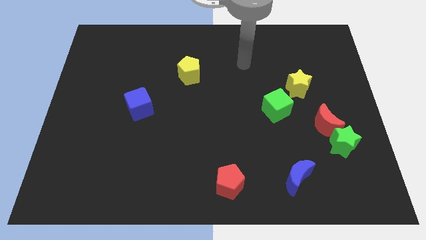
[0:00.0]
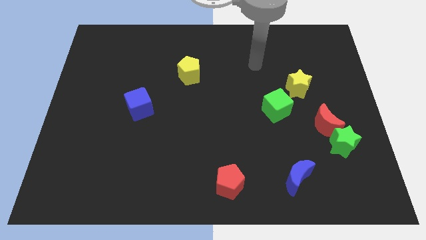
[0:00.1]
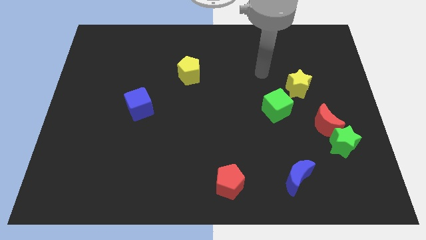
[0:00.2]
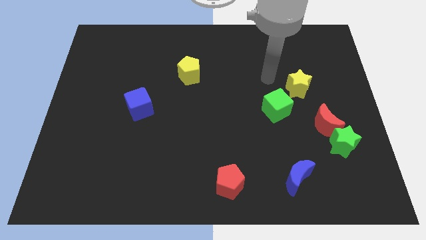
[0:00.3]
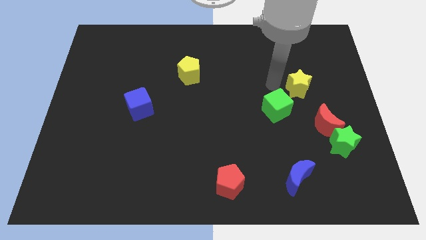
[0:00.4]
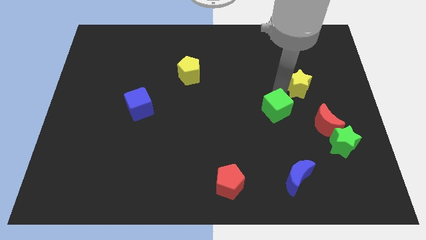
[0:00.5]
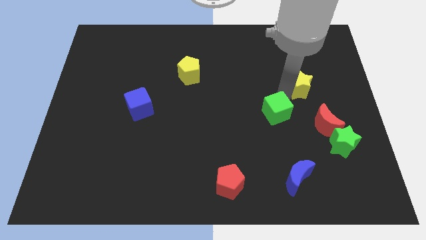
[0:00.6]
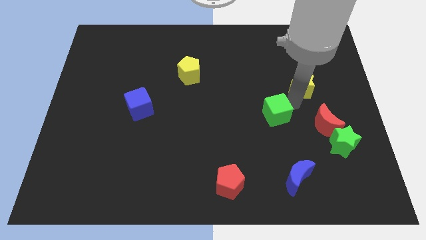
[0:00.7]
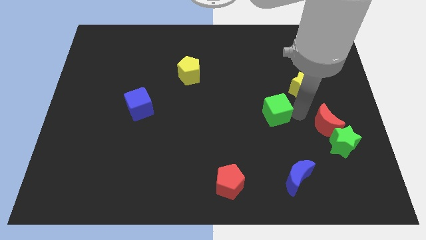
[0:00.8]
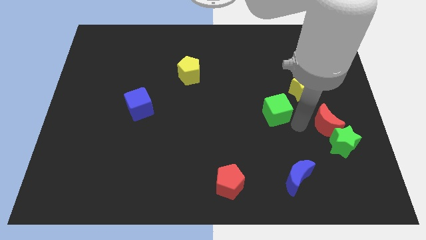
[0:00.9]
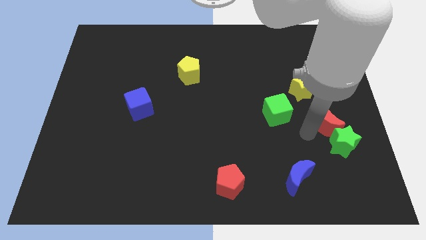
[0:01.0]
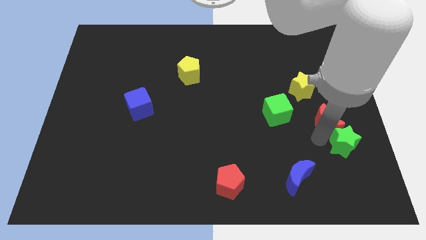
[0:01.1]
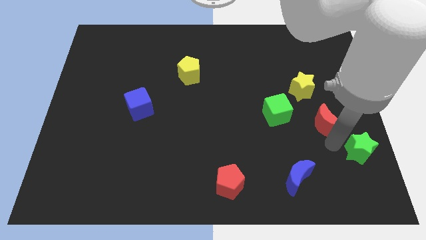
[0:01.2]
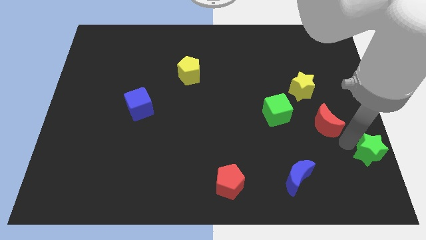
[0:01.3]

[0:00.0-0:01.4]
move the red moon away from the green star

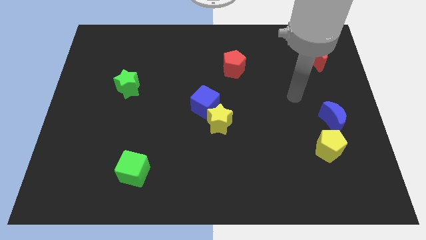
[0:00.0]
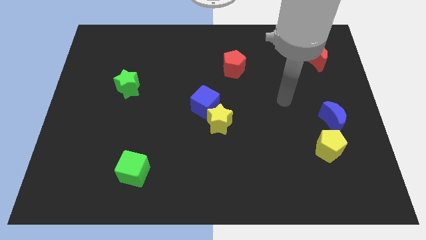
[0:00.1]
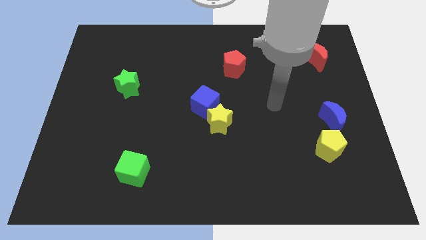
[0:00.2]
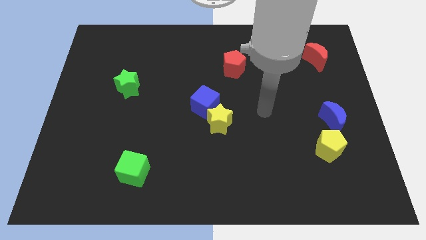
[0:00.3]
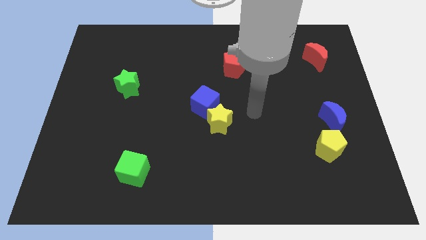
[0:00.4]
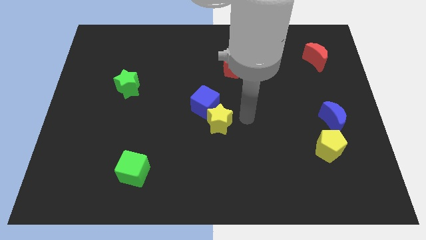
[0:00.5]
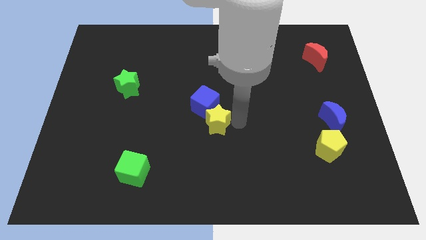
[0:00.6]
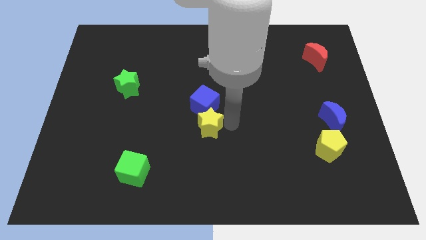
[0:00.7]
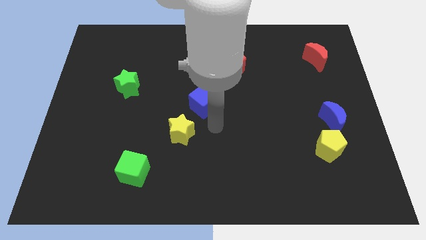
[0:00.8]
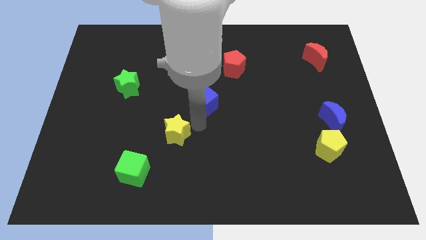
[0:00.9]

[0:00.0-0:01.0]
move the blue cube away from the yellow star

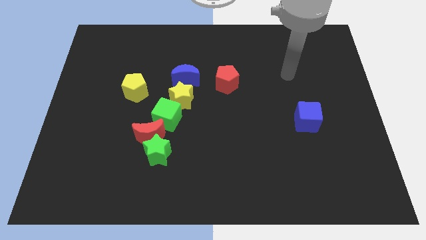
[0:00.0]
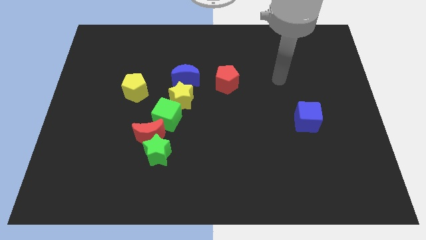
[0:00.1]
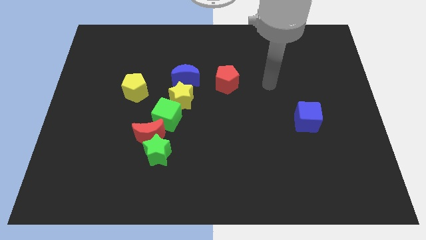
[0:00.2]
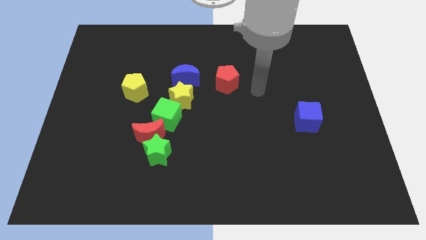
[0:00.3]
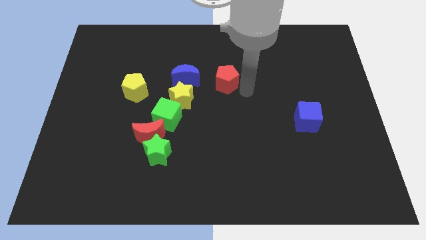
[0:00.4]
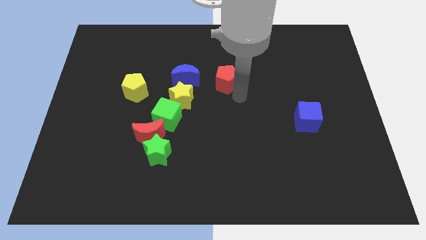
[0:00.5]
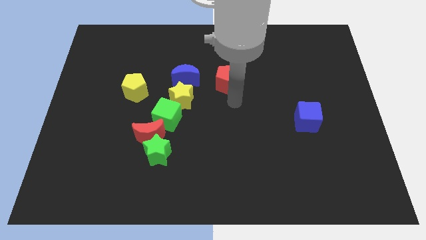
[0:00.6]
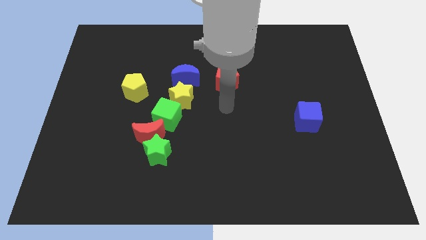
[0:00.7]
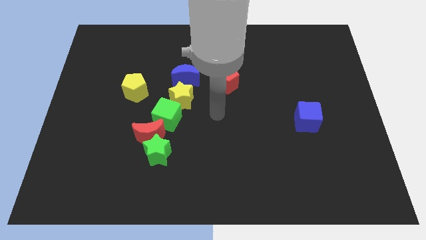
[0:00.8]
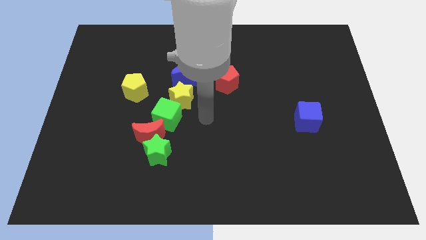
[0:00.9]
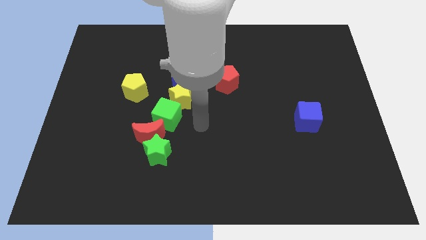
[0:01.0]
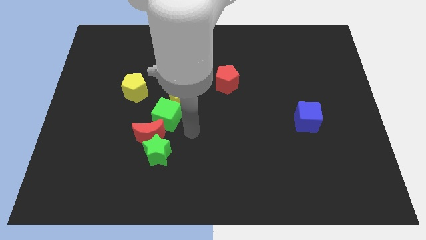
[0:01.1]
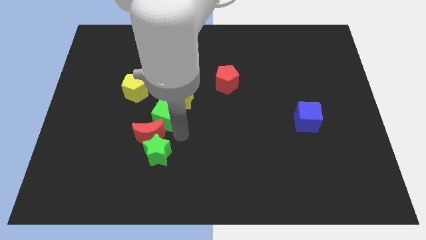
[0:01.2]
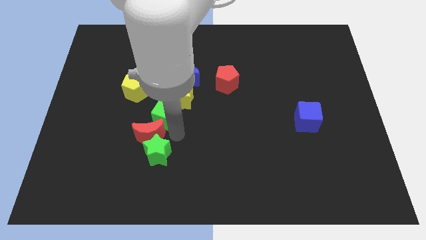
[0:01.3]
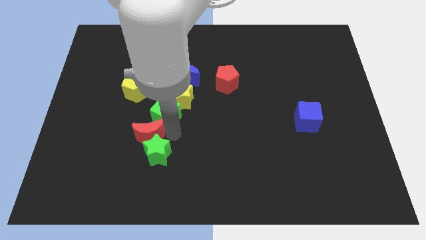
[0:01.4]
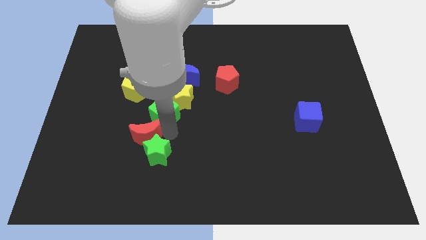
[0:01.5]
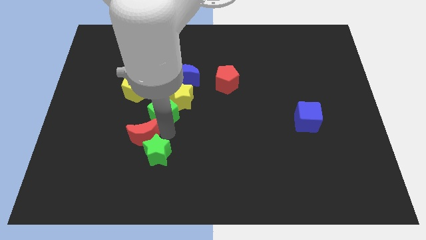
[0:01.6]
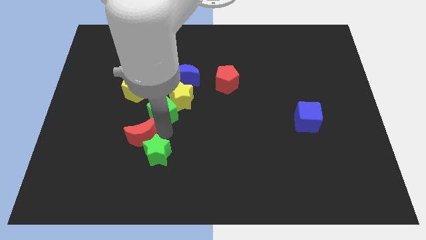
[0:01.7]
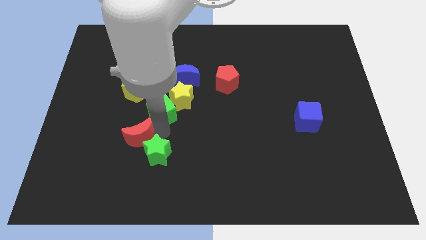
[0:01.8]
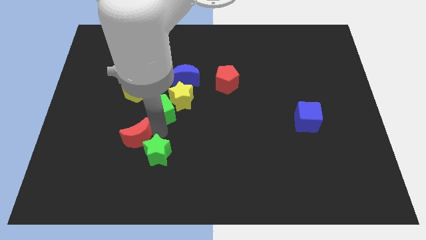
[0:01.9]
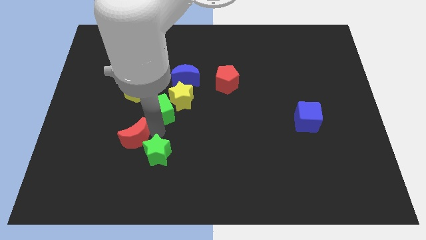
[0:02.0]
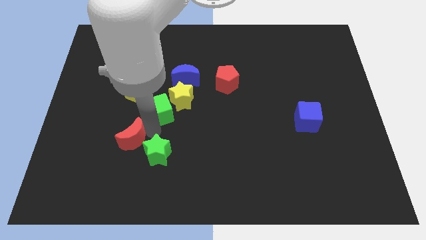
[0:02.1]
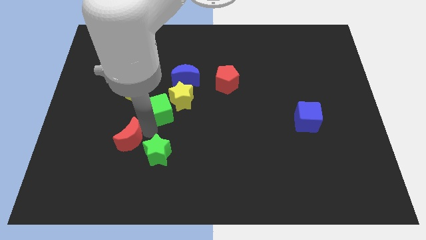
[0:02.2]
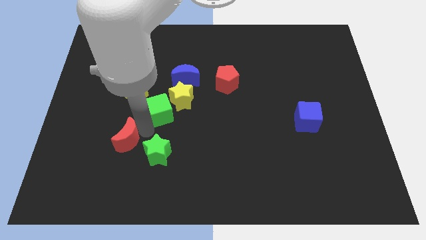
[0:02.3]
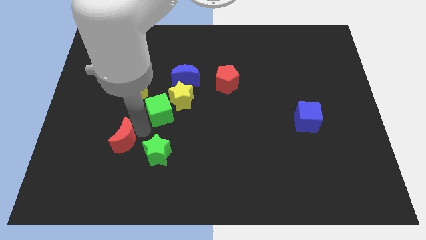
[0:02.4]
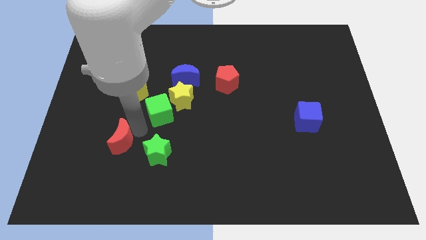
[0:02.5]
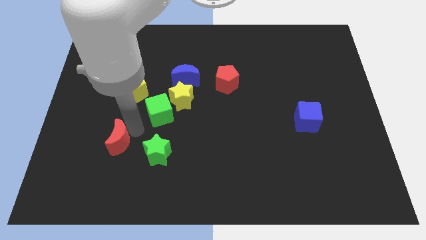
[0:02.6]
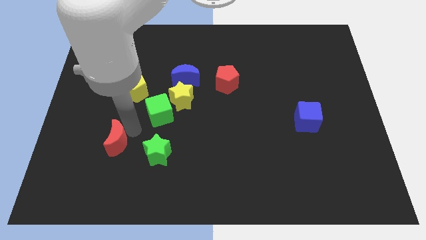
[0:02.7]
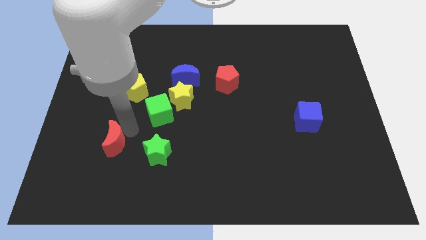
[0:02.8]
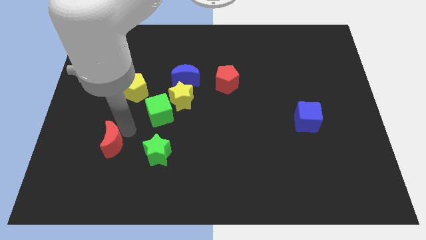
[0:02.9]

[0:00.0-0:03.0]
pull the red moon apart from the green star and green cube

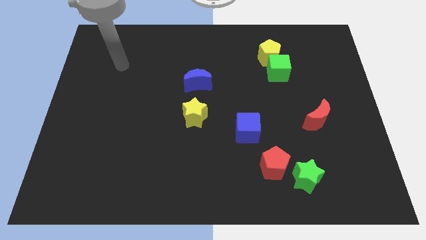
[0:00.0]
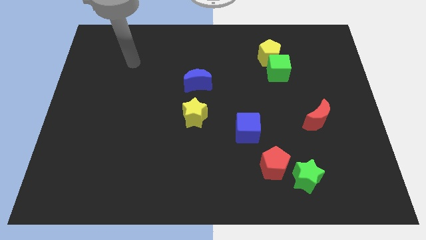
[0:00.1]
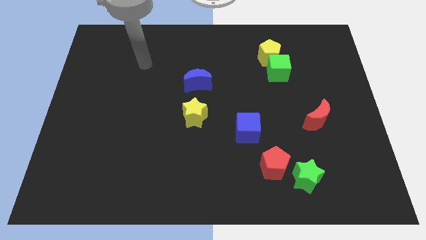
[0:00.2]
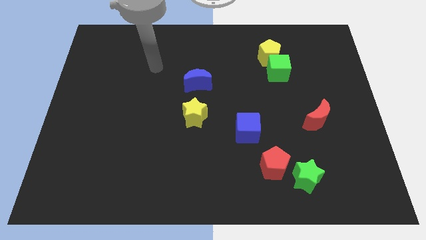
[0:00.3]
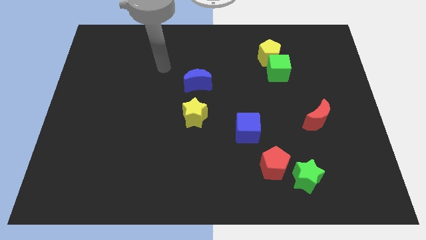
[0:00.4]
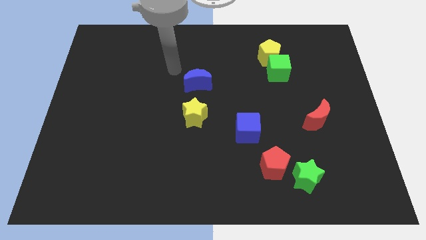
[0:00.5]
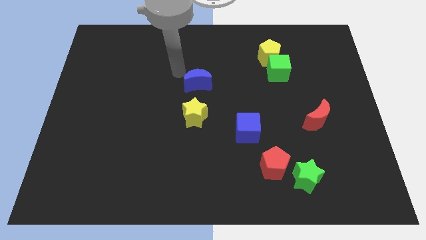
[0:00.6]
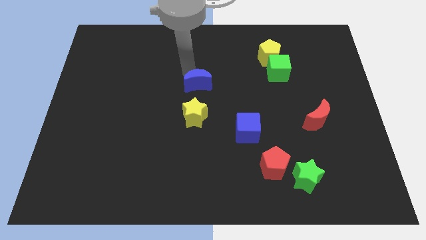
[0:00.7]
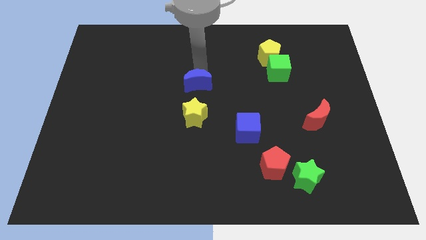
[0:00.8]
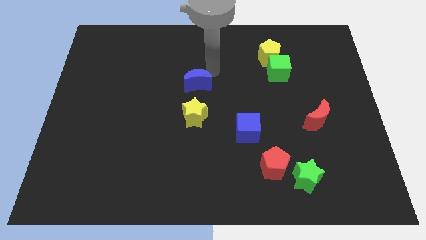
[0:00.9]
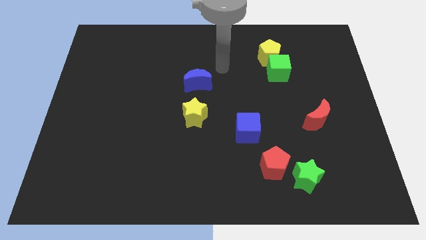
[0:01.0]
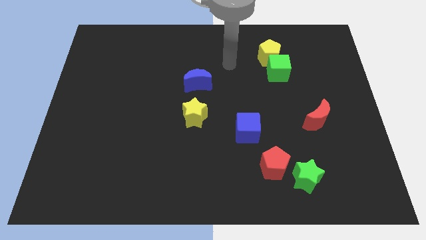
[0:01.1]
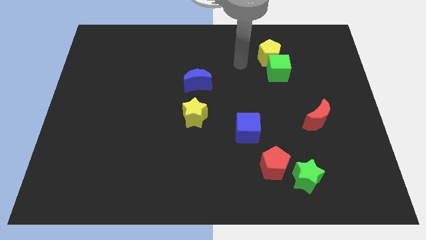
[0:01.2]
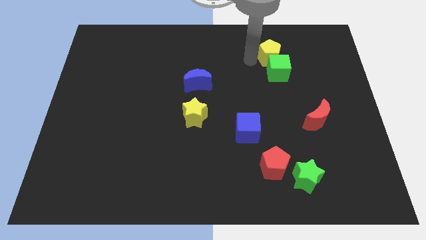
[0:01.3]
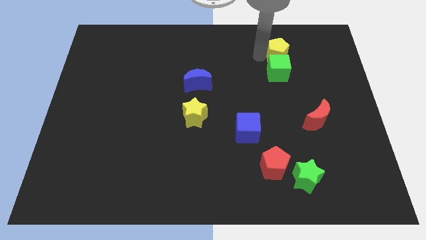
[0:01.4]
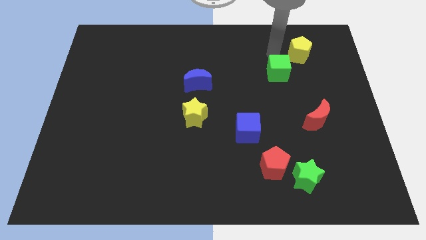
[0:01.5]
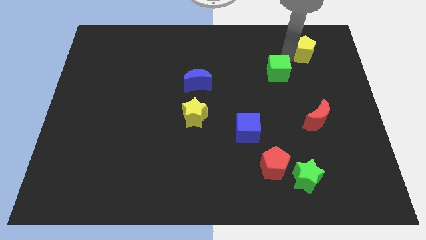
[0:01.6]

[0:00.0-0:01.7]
move the green cube away from the yellow pentagon

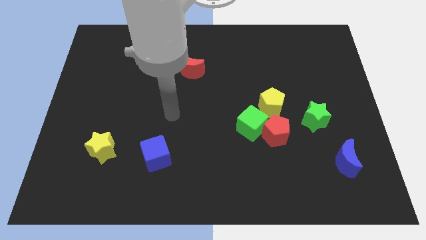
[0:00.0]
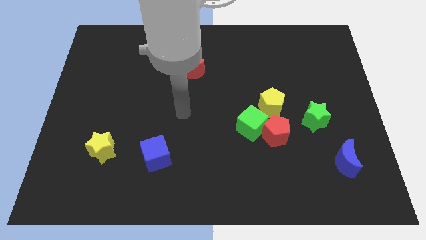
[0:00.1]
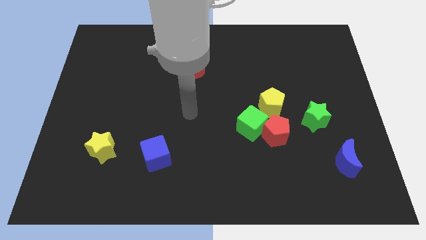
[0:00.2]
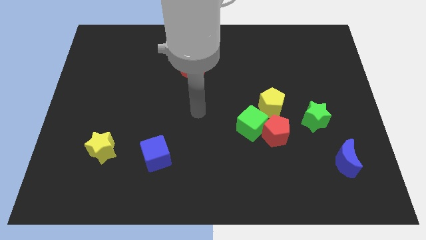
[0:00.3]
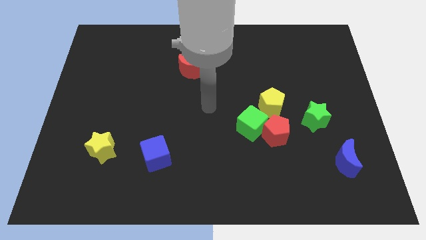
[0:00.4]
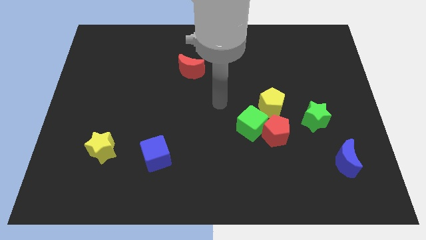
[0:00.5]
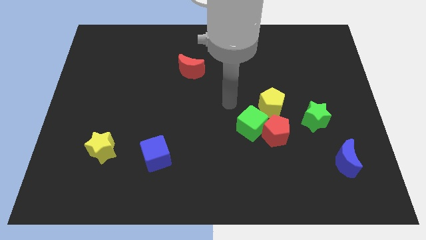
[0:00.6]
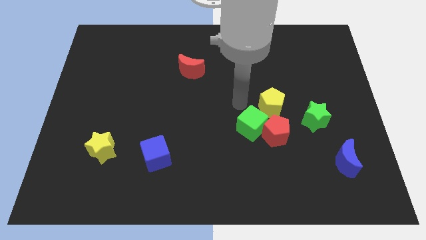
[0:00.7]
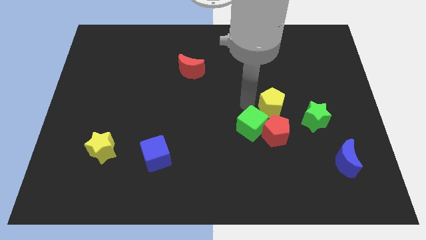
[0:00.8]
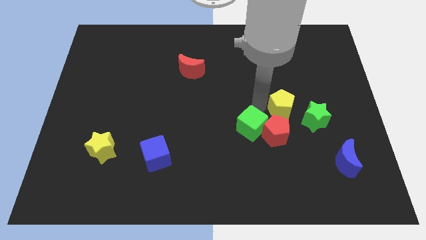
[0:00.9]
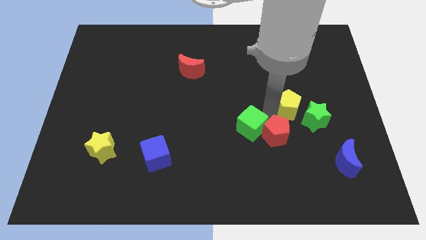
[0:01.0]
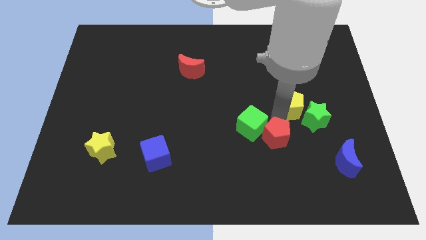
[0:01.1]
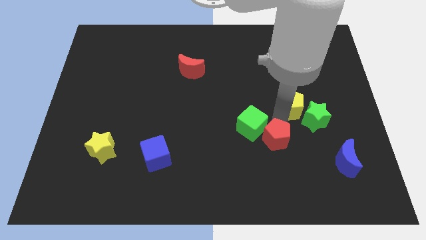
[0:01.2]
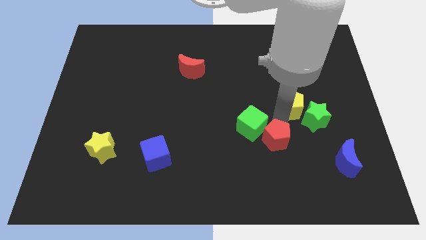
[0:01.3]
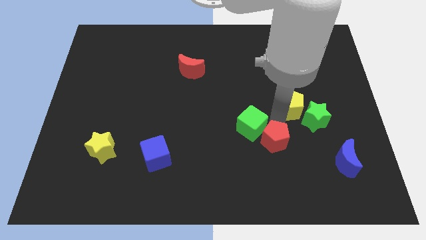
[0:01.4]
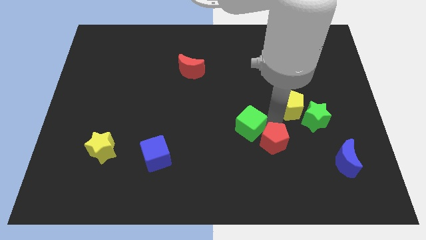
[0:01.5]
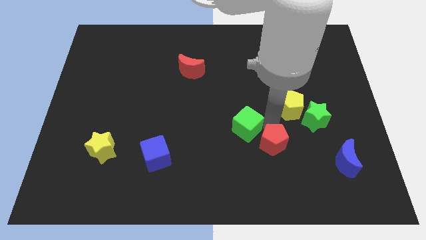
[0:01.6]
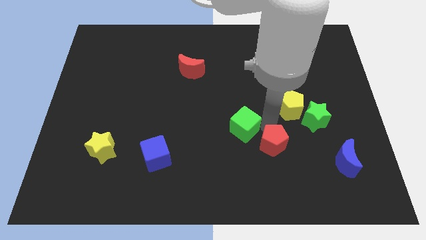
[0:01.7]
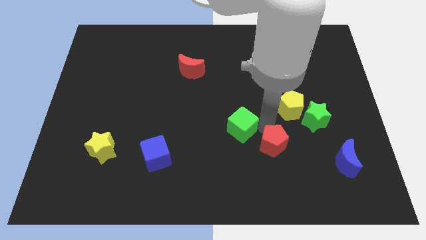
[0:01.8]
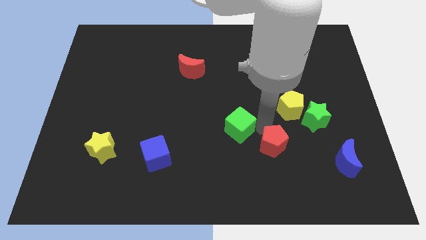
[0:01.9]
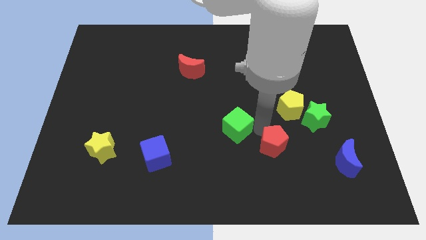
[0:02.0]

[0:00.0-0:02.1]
separate the green cube from the red pentagon and yellow pentagon

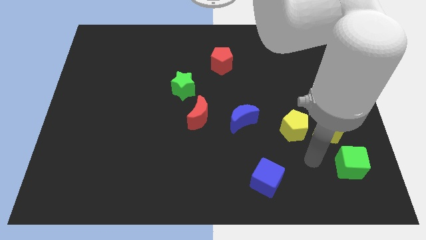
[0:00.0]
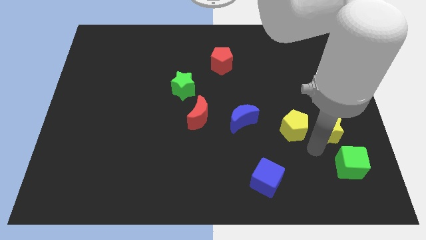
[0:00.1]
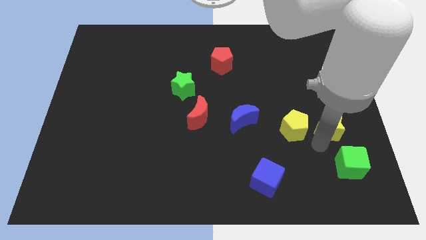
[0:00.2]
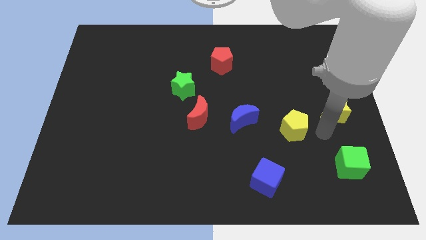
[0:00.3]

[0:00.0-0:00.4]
separate the yellow pentagon from the yellow star
